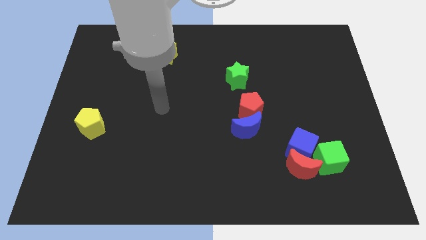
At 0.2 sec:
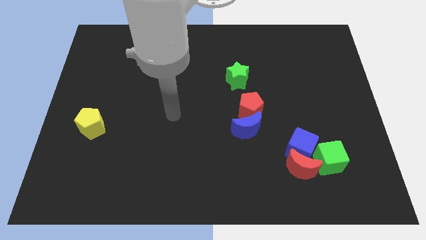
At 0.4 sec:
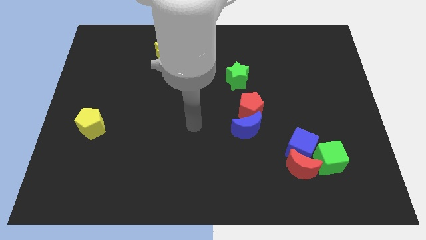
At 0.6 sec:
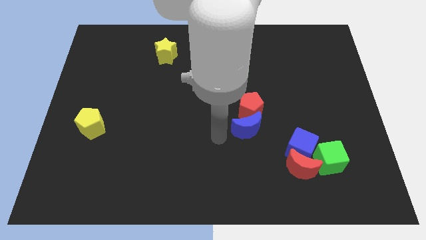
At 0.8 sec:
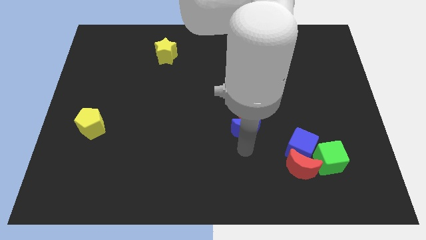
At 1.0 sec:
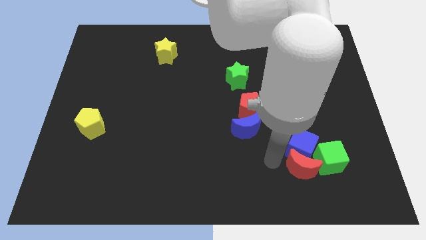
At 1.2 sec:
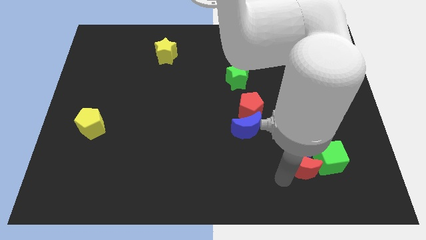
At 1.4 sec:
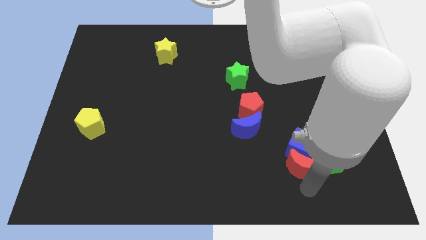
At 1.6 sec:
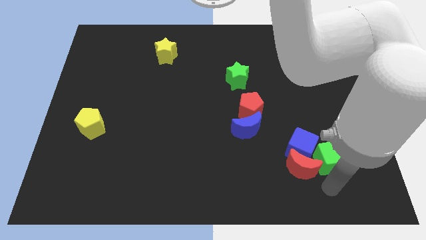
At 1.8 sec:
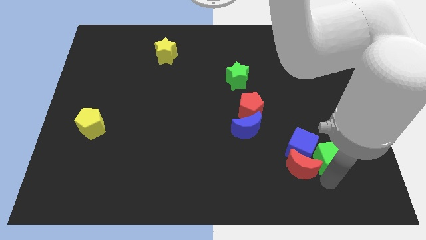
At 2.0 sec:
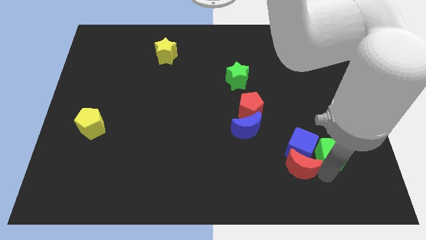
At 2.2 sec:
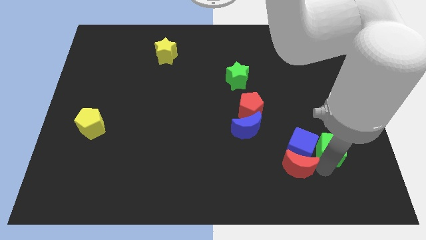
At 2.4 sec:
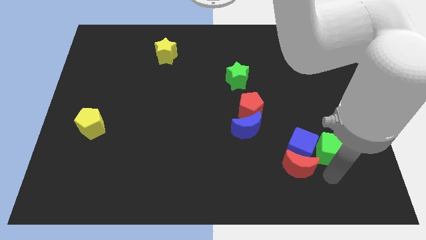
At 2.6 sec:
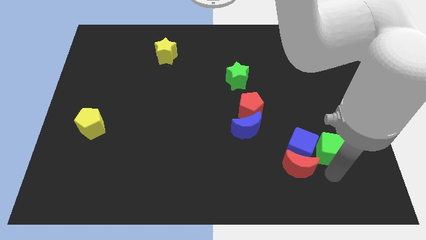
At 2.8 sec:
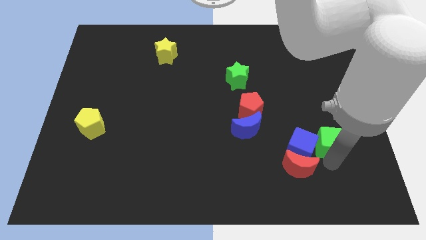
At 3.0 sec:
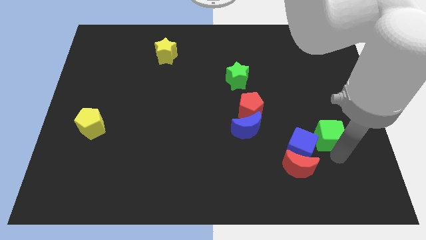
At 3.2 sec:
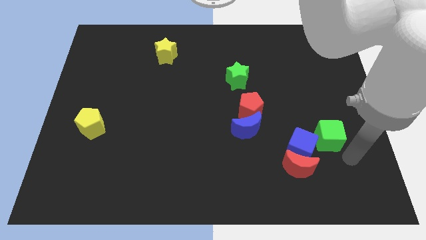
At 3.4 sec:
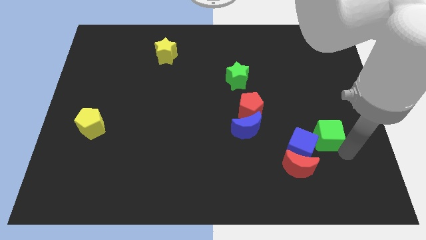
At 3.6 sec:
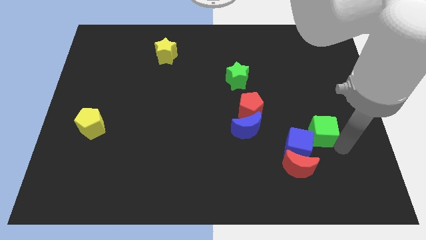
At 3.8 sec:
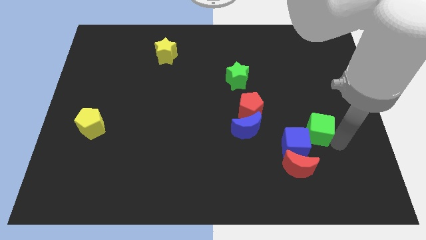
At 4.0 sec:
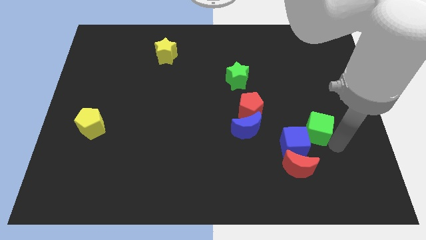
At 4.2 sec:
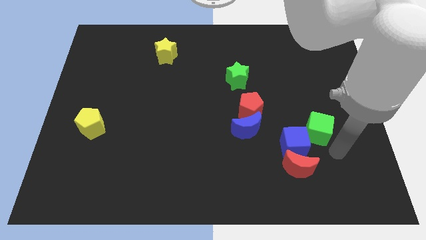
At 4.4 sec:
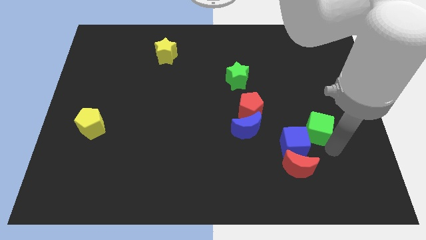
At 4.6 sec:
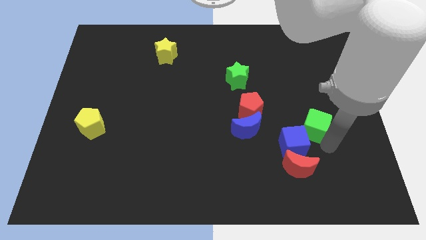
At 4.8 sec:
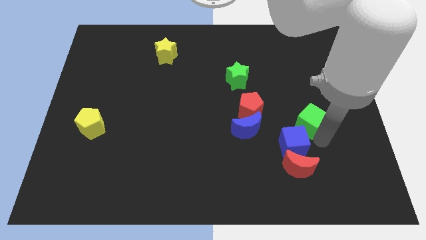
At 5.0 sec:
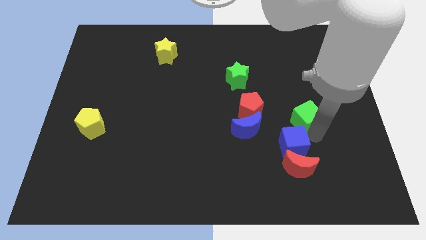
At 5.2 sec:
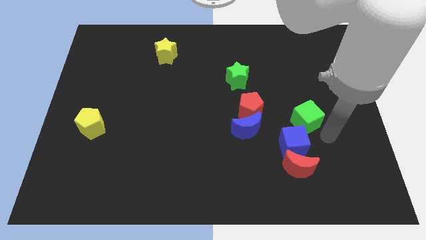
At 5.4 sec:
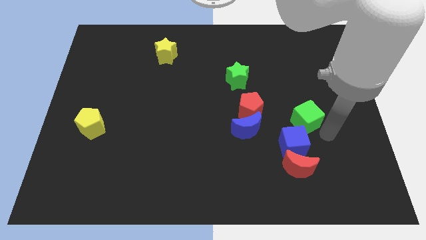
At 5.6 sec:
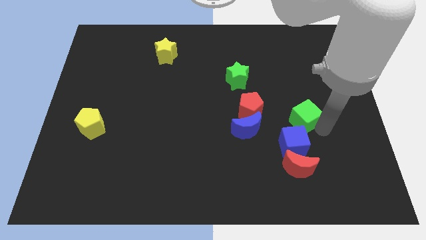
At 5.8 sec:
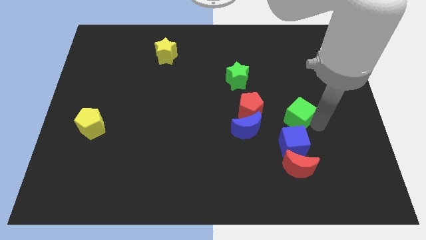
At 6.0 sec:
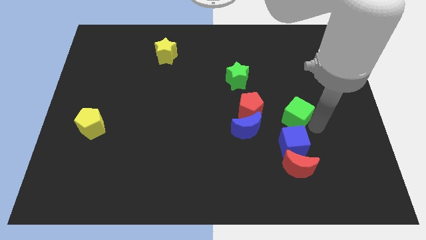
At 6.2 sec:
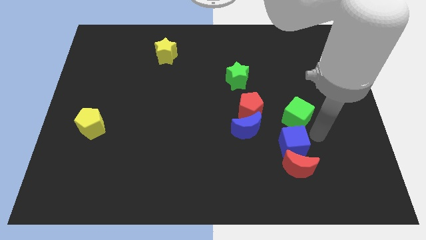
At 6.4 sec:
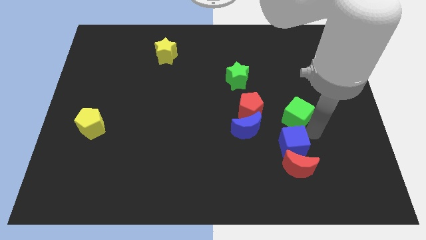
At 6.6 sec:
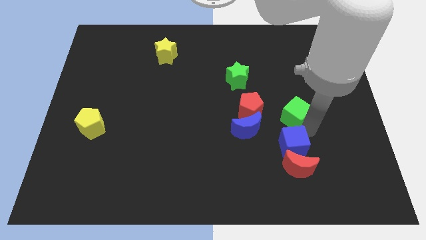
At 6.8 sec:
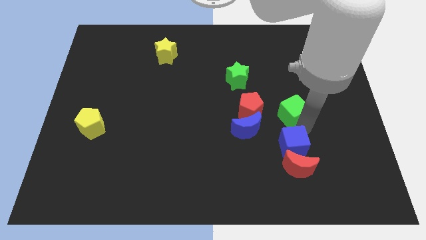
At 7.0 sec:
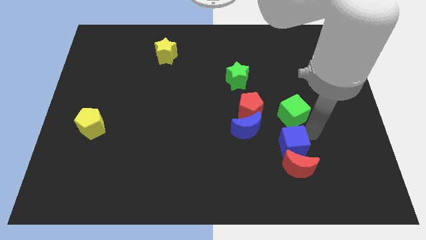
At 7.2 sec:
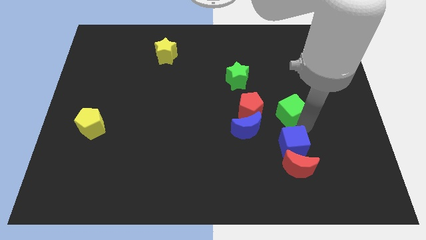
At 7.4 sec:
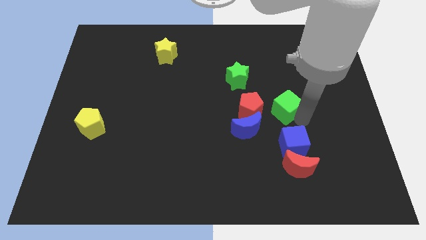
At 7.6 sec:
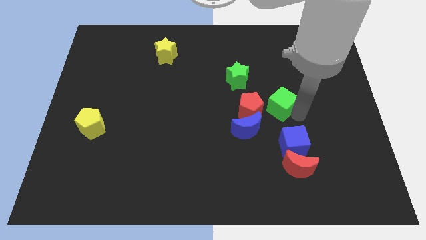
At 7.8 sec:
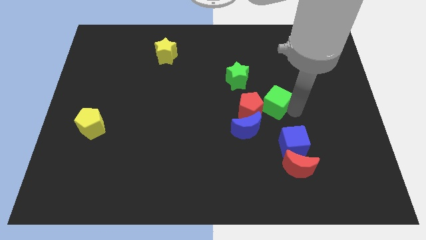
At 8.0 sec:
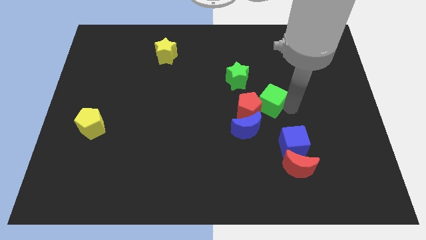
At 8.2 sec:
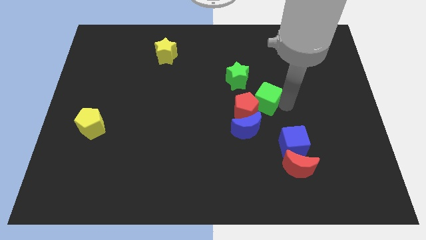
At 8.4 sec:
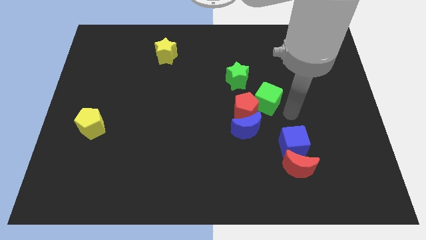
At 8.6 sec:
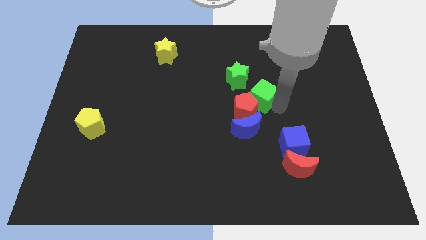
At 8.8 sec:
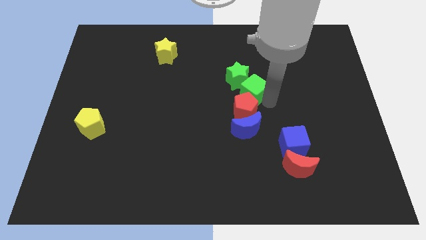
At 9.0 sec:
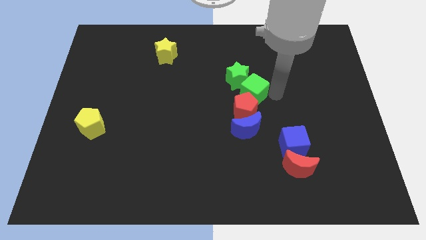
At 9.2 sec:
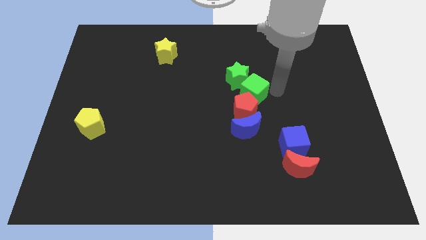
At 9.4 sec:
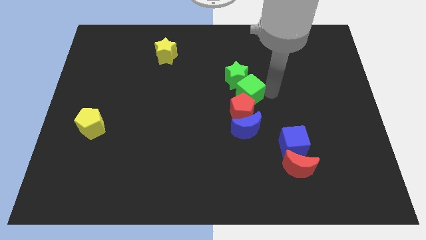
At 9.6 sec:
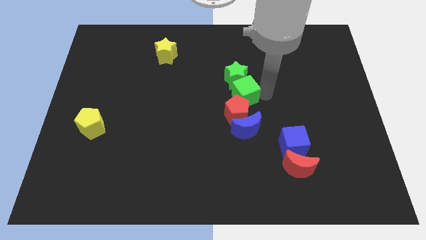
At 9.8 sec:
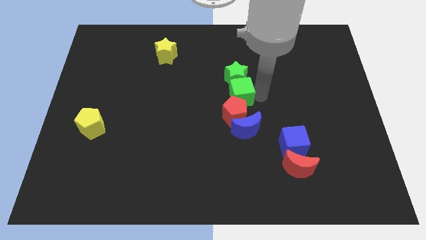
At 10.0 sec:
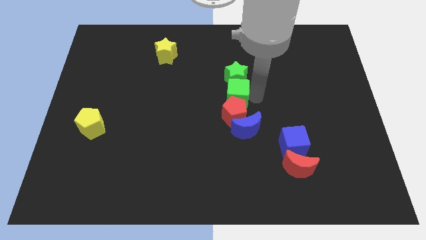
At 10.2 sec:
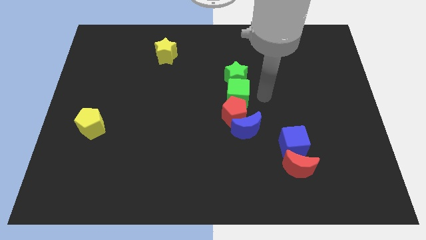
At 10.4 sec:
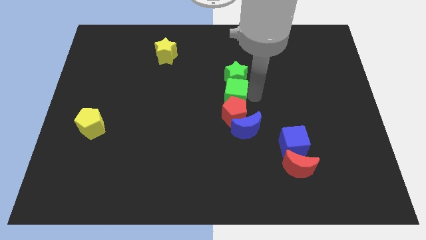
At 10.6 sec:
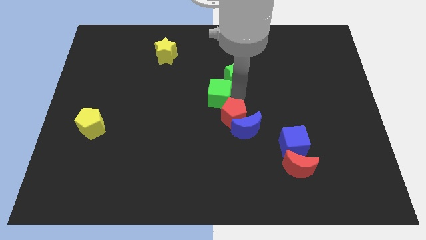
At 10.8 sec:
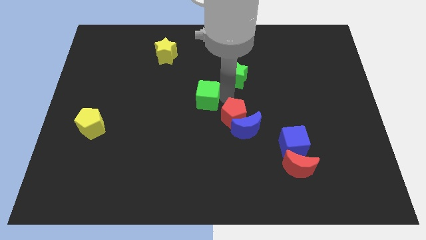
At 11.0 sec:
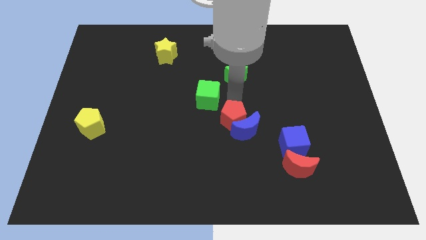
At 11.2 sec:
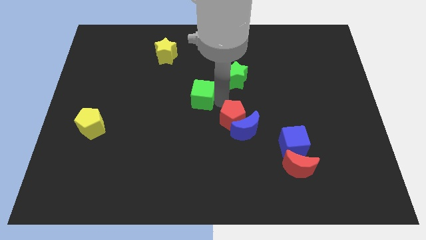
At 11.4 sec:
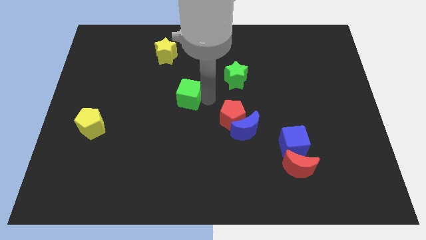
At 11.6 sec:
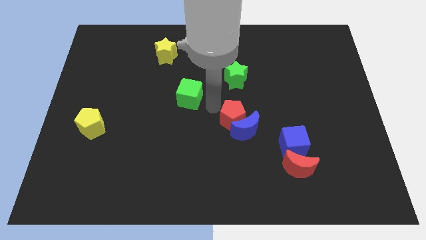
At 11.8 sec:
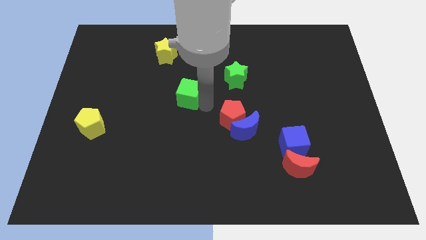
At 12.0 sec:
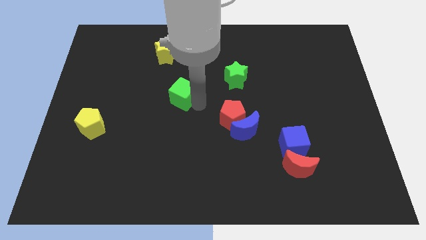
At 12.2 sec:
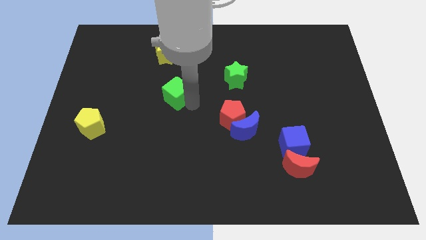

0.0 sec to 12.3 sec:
move the green cube below the yellow star
